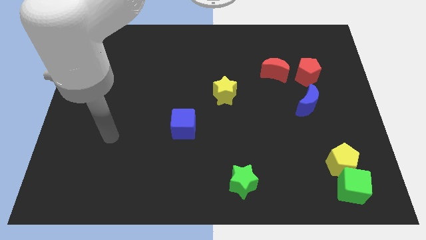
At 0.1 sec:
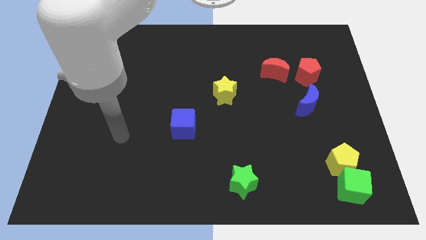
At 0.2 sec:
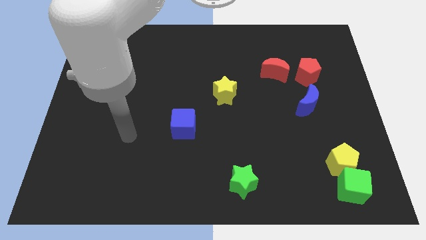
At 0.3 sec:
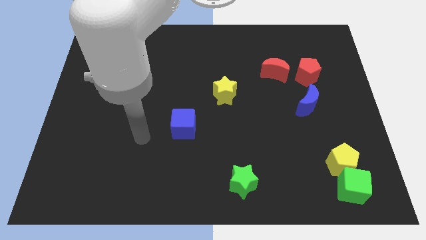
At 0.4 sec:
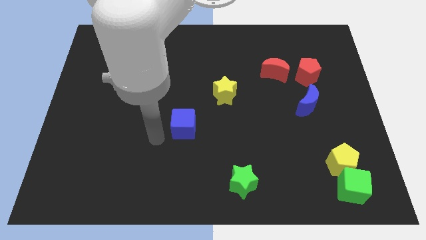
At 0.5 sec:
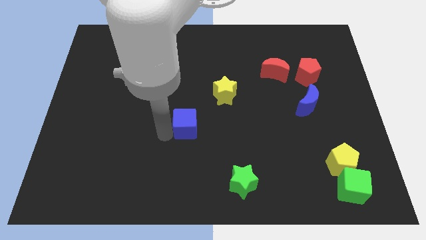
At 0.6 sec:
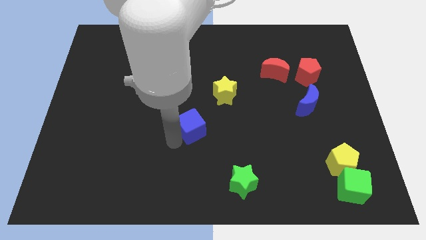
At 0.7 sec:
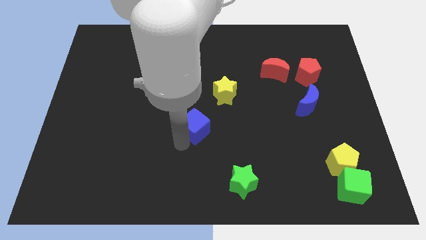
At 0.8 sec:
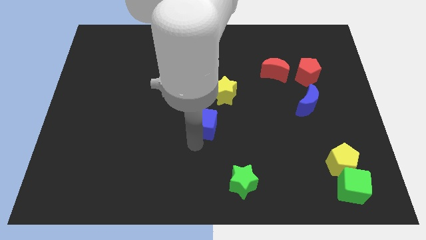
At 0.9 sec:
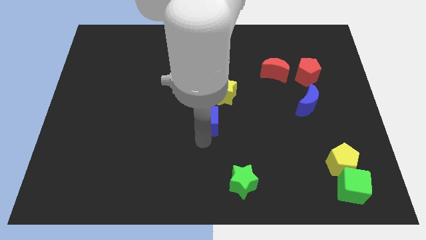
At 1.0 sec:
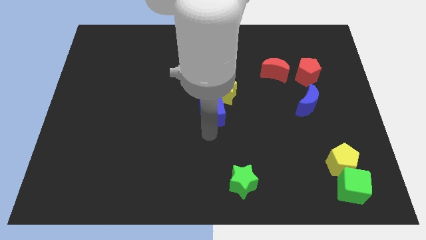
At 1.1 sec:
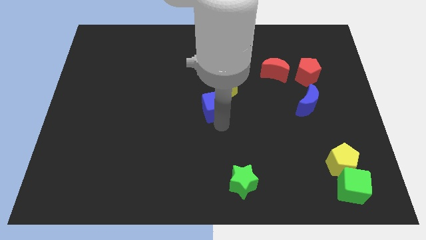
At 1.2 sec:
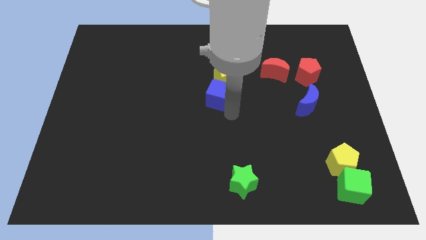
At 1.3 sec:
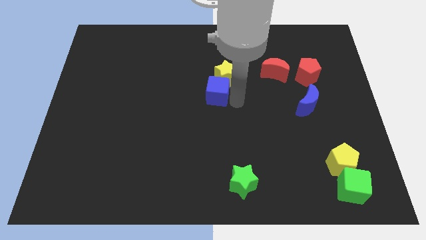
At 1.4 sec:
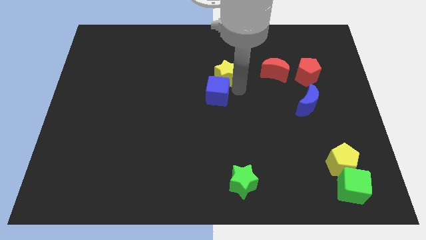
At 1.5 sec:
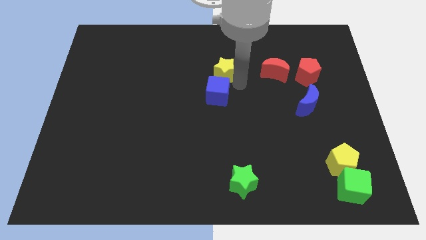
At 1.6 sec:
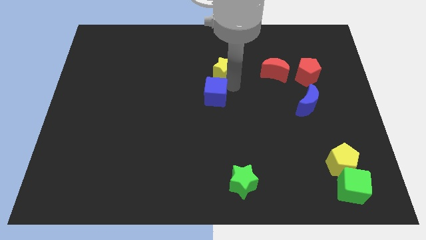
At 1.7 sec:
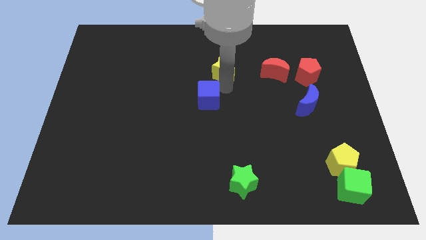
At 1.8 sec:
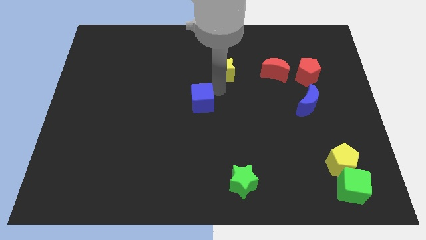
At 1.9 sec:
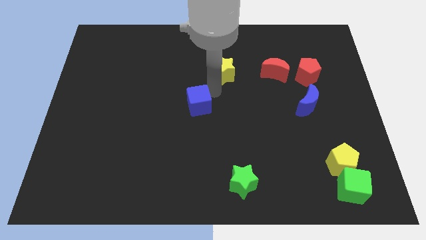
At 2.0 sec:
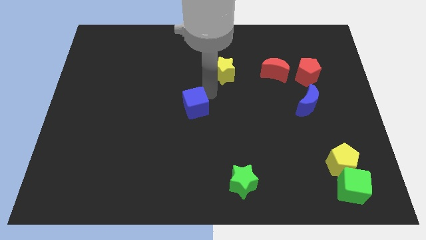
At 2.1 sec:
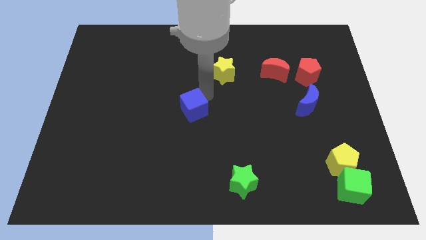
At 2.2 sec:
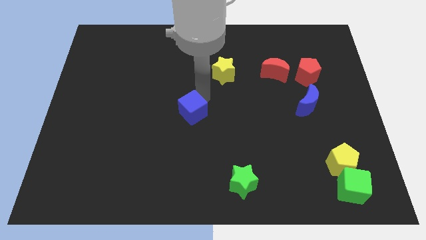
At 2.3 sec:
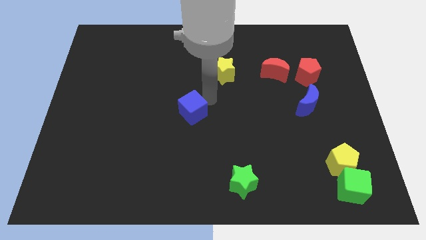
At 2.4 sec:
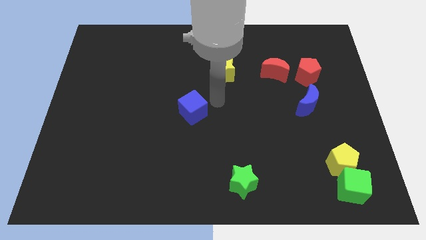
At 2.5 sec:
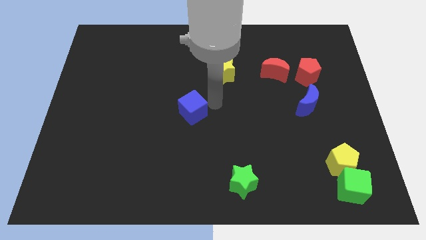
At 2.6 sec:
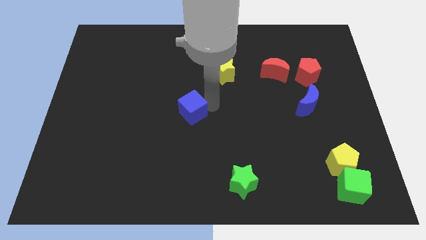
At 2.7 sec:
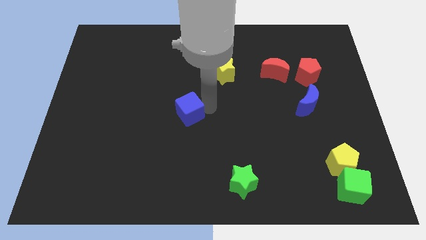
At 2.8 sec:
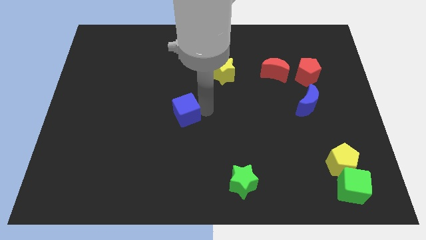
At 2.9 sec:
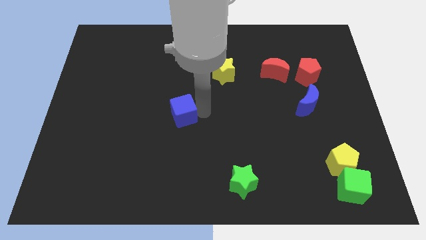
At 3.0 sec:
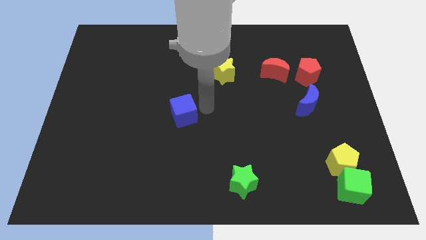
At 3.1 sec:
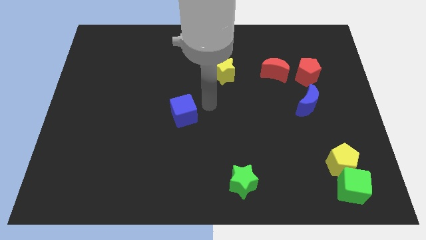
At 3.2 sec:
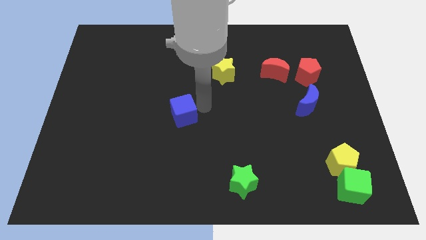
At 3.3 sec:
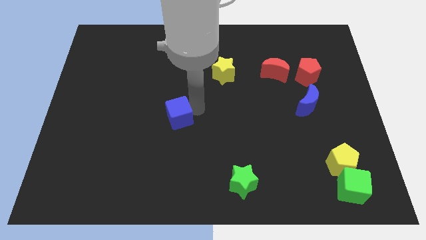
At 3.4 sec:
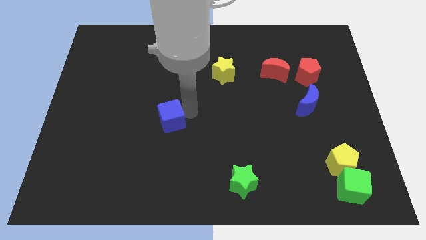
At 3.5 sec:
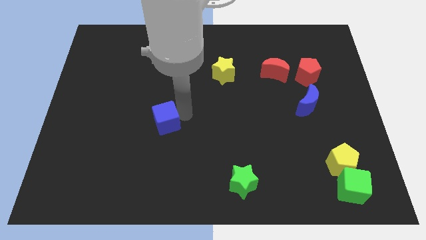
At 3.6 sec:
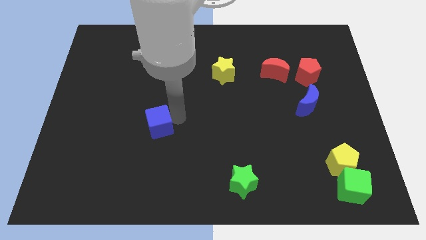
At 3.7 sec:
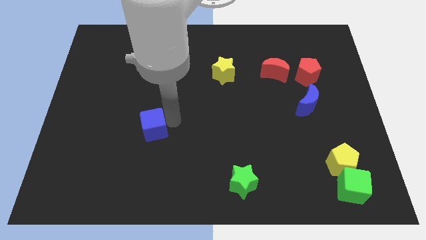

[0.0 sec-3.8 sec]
slightly move the blue cube to the left

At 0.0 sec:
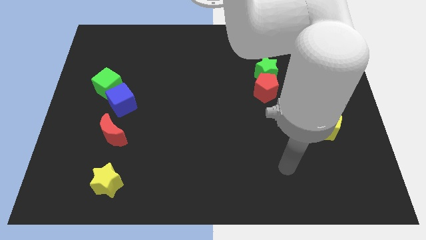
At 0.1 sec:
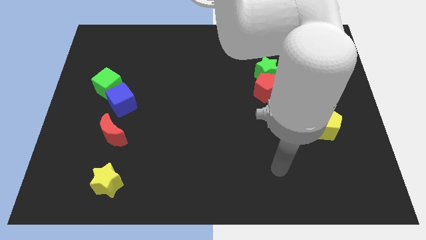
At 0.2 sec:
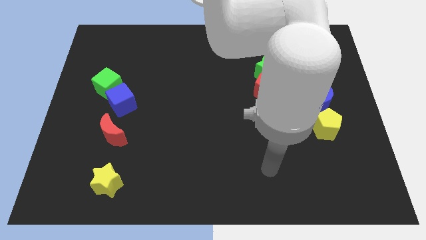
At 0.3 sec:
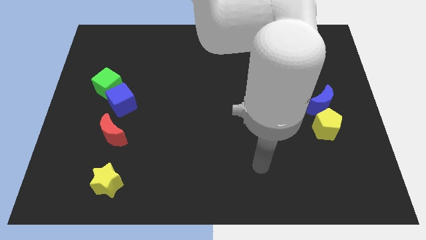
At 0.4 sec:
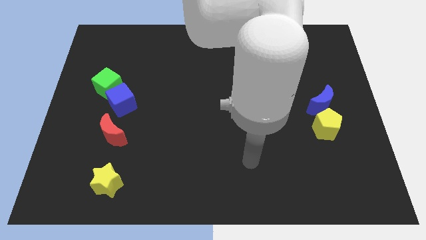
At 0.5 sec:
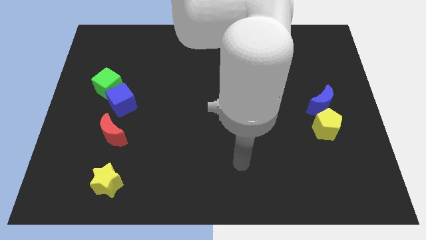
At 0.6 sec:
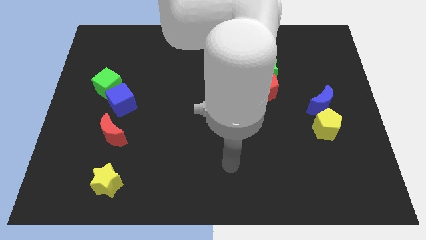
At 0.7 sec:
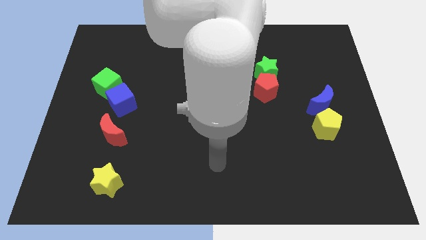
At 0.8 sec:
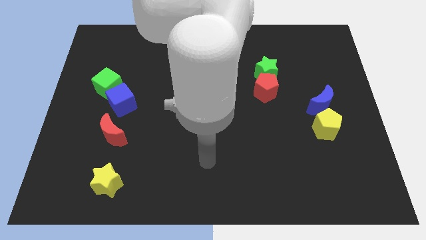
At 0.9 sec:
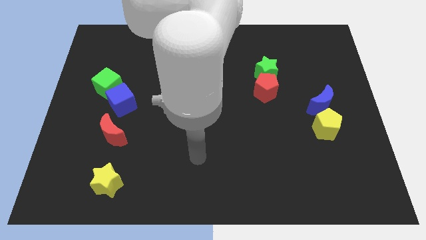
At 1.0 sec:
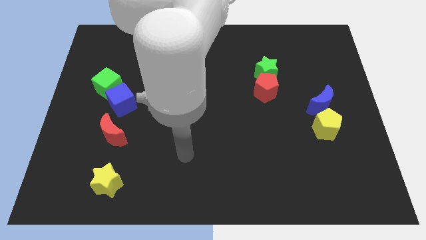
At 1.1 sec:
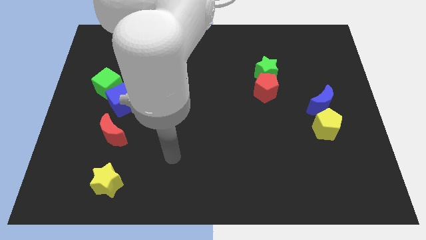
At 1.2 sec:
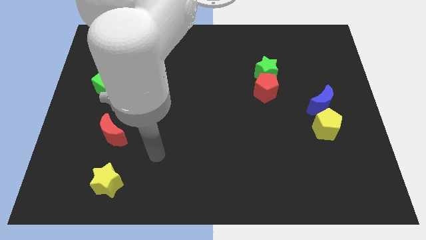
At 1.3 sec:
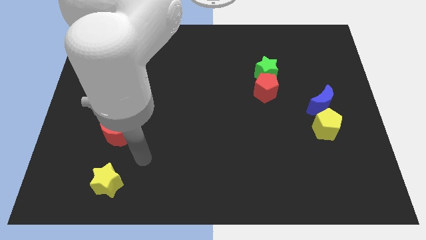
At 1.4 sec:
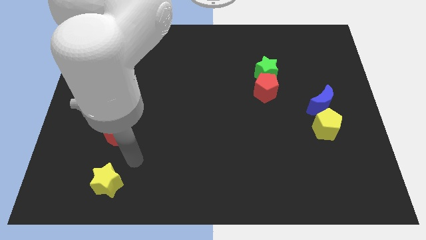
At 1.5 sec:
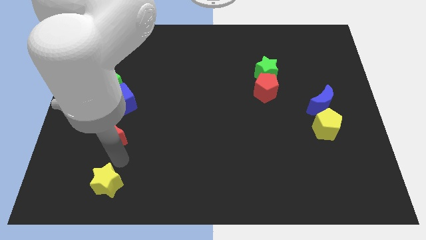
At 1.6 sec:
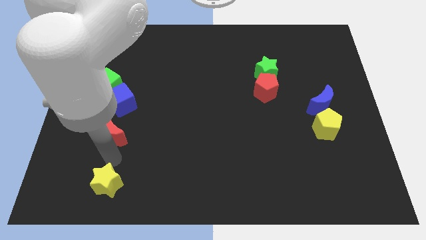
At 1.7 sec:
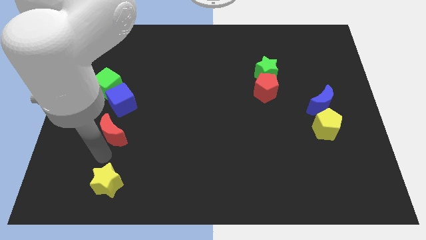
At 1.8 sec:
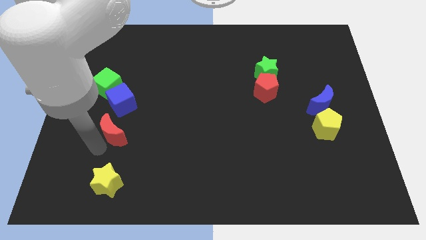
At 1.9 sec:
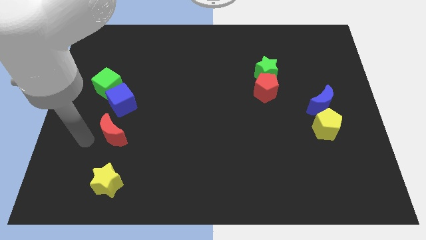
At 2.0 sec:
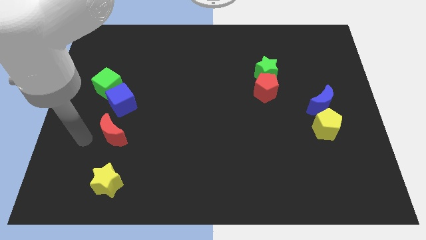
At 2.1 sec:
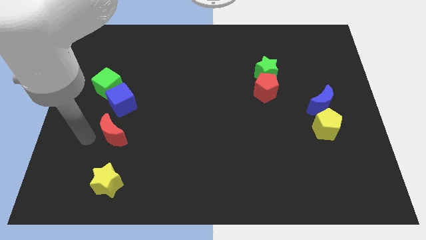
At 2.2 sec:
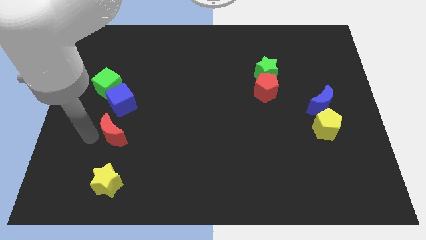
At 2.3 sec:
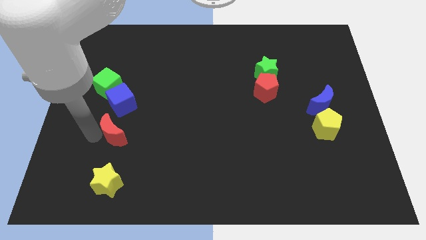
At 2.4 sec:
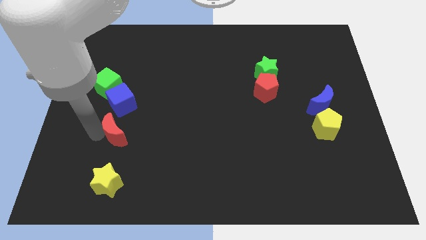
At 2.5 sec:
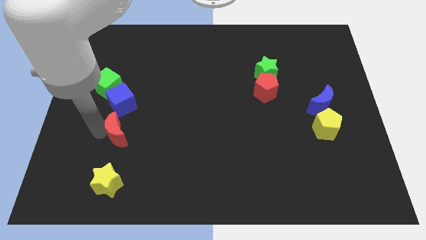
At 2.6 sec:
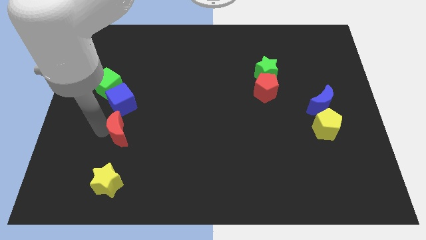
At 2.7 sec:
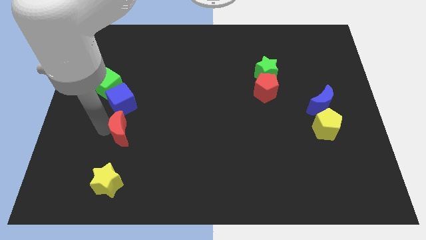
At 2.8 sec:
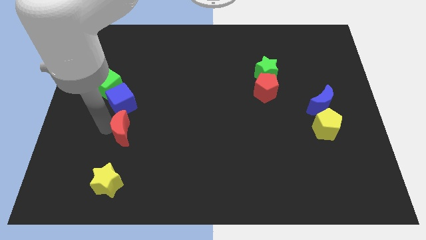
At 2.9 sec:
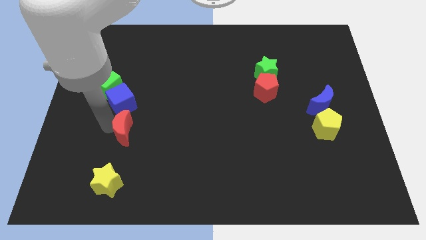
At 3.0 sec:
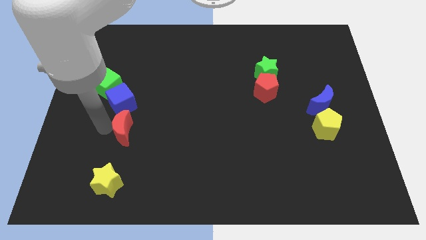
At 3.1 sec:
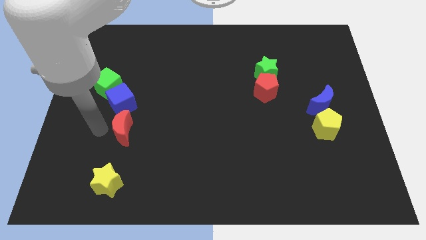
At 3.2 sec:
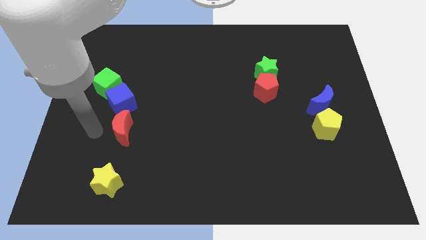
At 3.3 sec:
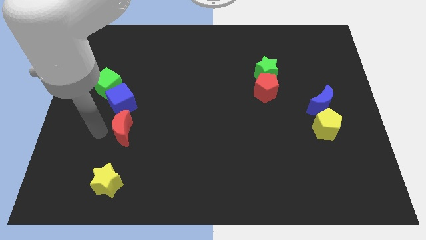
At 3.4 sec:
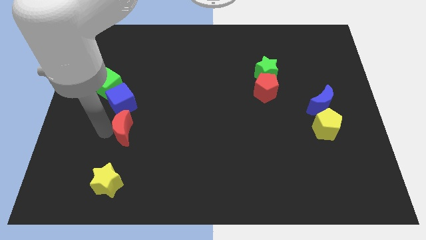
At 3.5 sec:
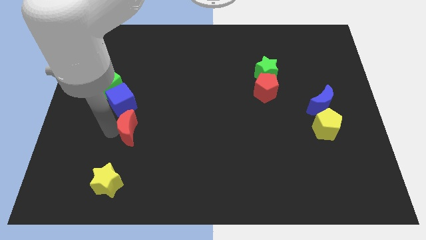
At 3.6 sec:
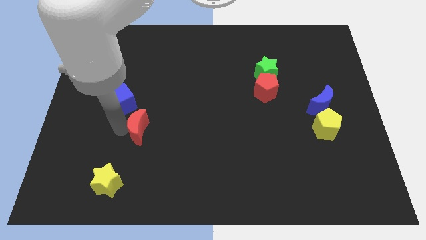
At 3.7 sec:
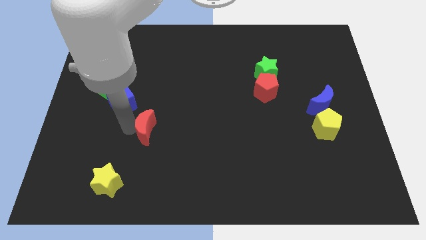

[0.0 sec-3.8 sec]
slightly slide the red moon right

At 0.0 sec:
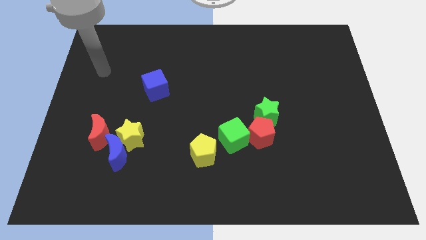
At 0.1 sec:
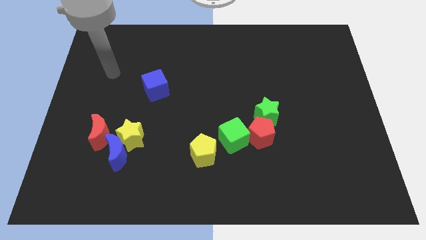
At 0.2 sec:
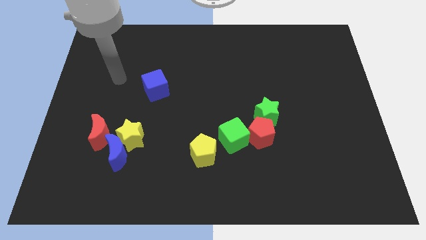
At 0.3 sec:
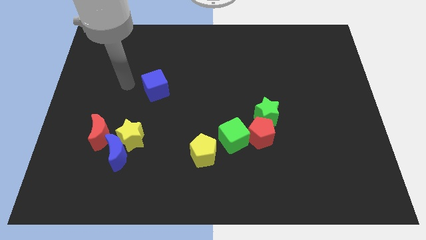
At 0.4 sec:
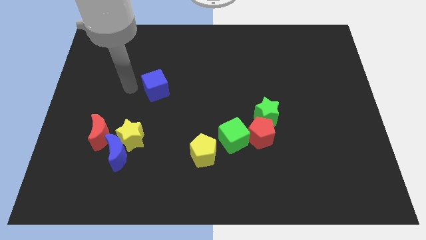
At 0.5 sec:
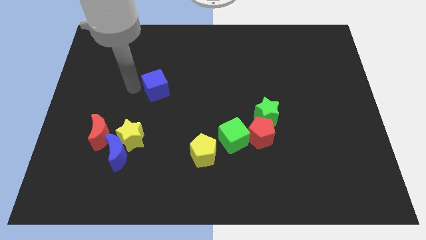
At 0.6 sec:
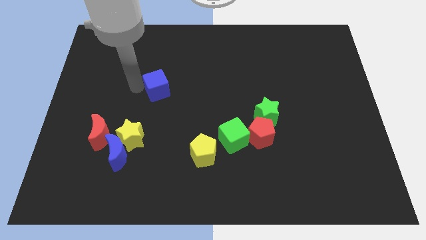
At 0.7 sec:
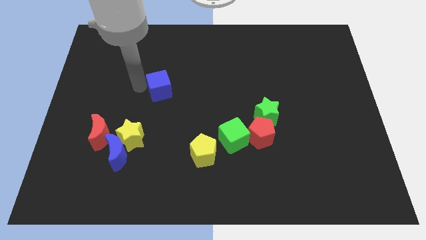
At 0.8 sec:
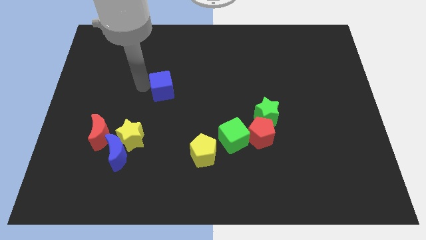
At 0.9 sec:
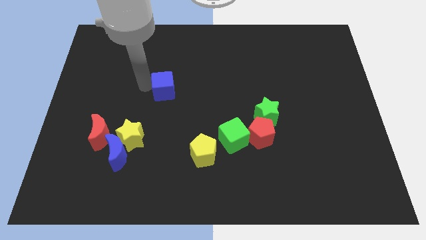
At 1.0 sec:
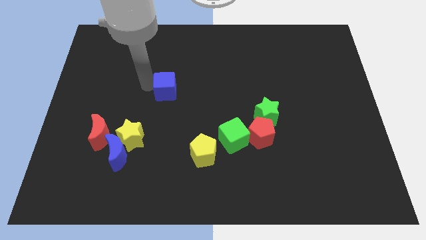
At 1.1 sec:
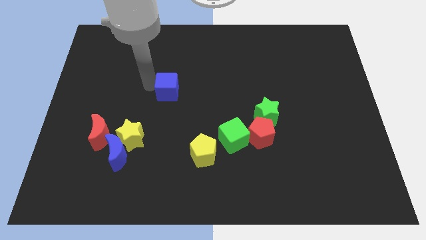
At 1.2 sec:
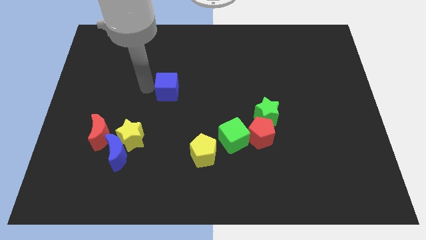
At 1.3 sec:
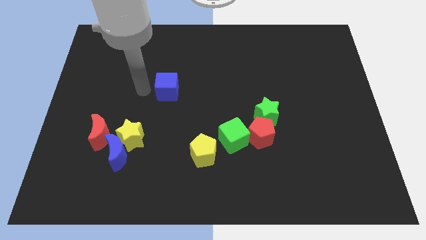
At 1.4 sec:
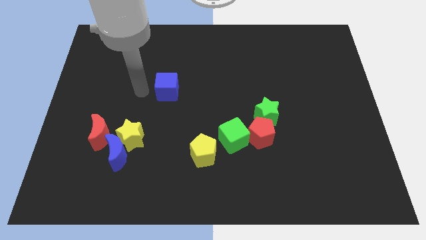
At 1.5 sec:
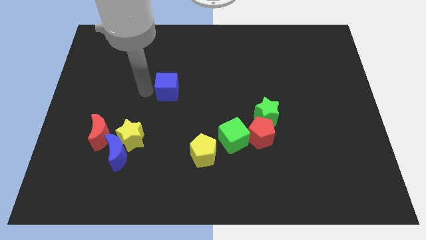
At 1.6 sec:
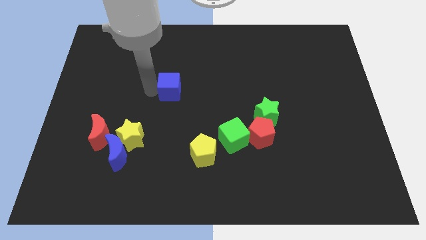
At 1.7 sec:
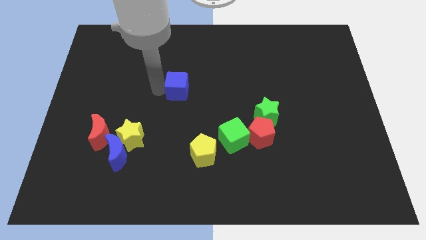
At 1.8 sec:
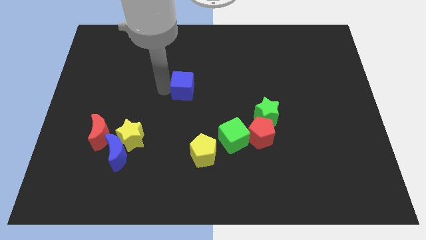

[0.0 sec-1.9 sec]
slide the blue cube a little to the right
